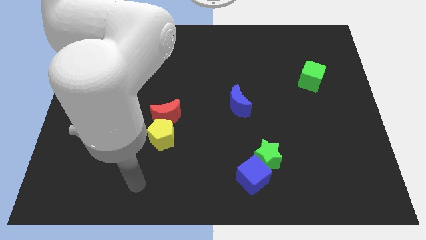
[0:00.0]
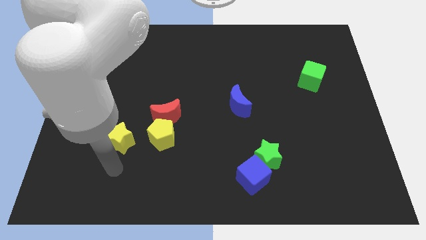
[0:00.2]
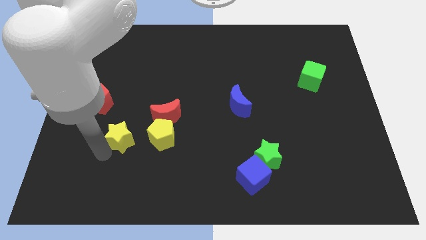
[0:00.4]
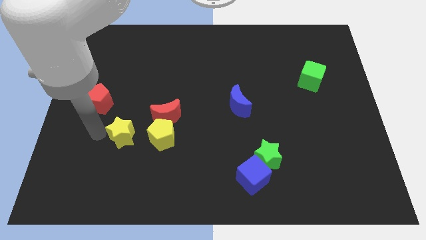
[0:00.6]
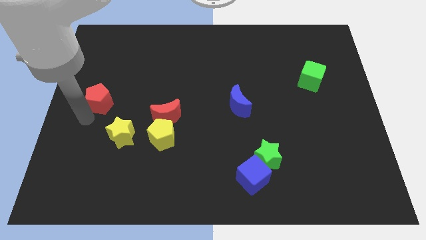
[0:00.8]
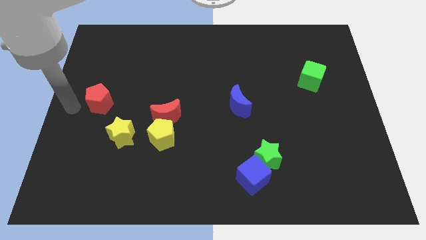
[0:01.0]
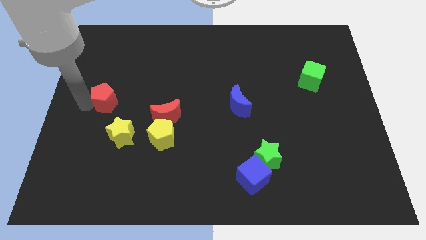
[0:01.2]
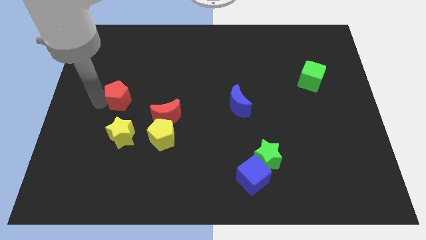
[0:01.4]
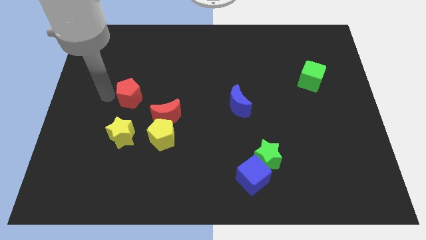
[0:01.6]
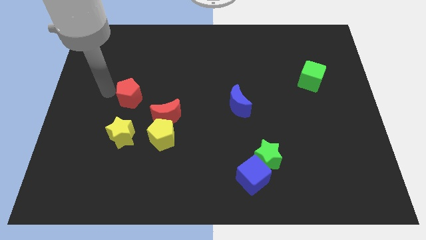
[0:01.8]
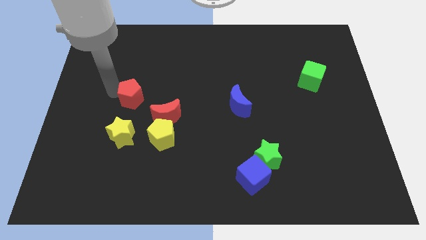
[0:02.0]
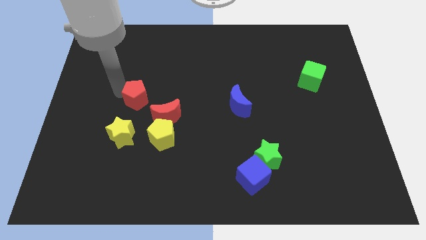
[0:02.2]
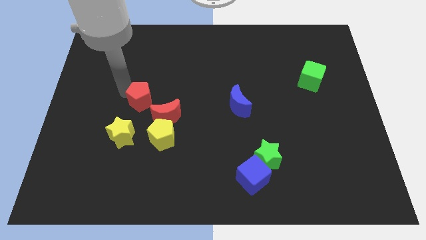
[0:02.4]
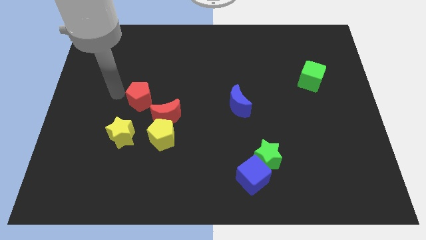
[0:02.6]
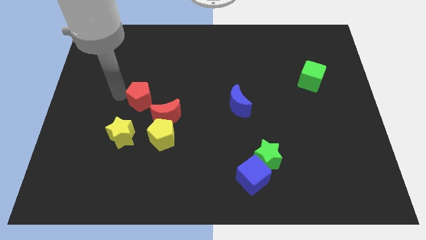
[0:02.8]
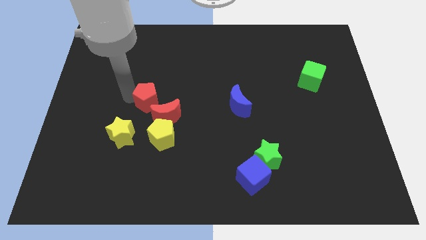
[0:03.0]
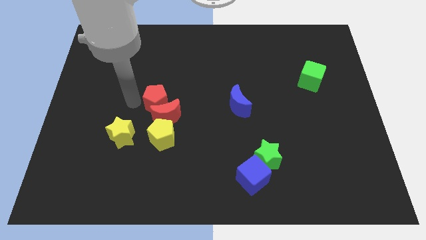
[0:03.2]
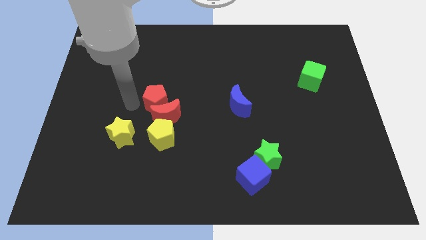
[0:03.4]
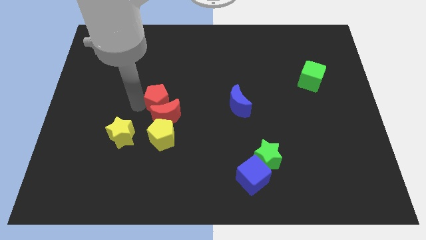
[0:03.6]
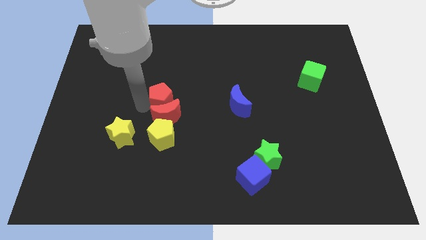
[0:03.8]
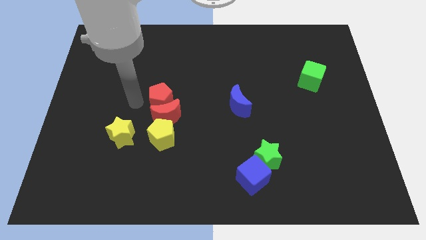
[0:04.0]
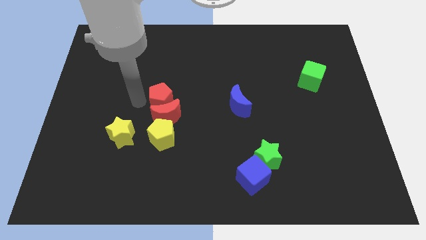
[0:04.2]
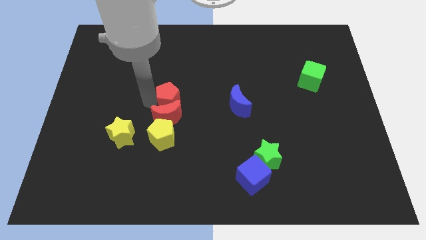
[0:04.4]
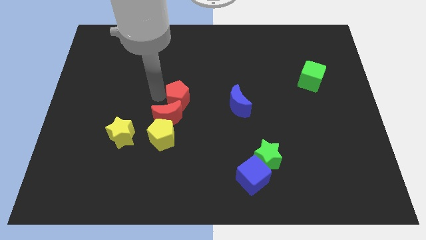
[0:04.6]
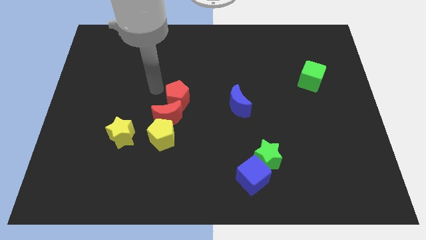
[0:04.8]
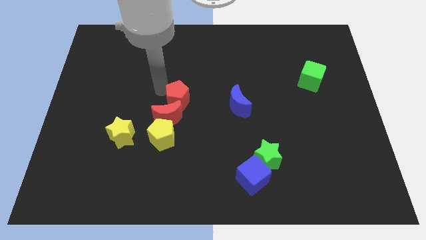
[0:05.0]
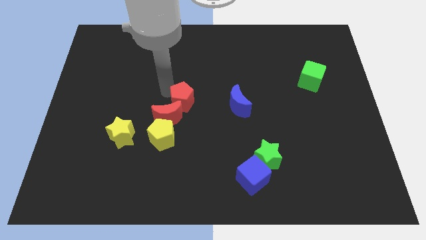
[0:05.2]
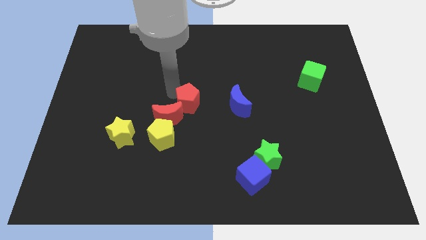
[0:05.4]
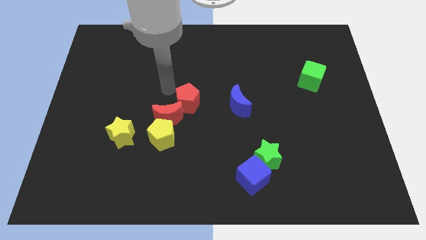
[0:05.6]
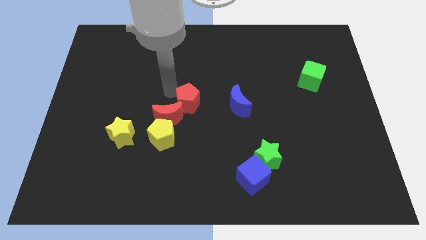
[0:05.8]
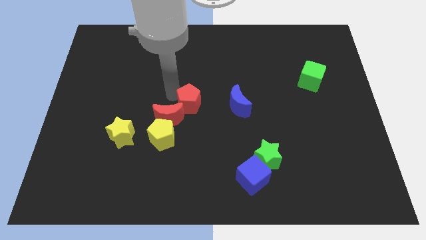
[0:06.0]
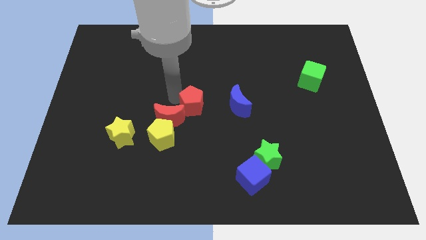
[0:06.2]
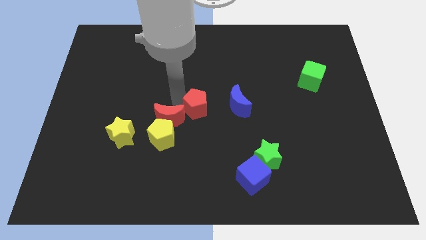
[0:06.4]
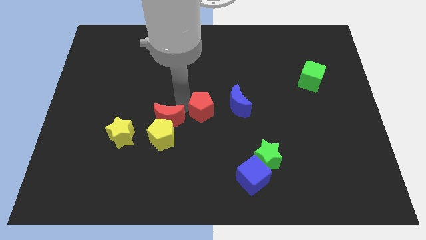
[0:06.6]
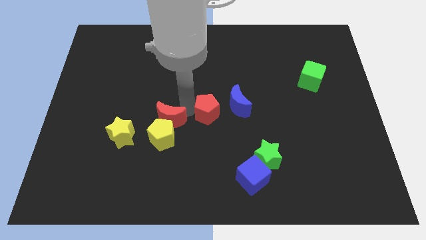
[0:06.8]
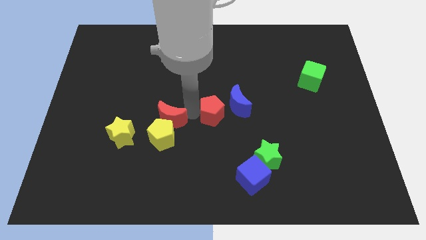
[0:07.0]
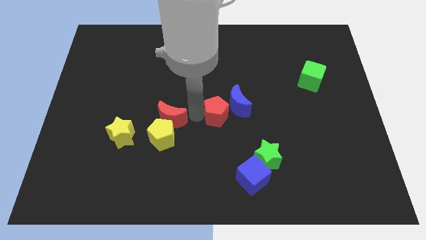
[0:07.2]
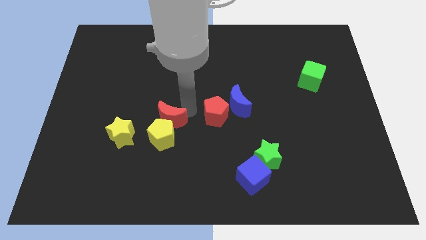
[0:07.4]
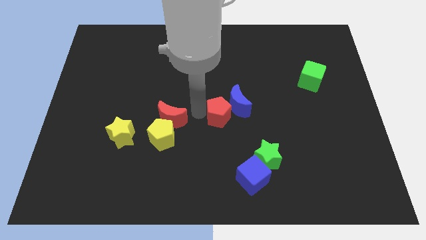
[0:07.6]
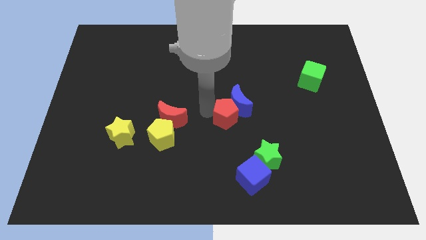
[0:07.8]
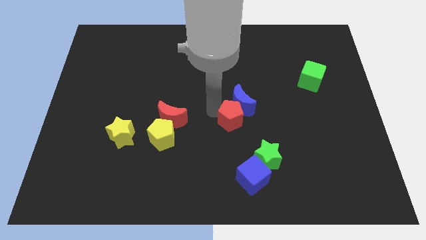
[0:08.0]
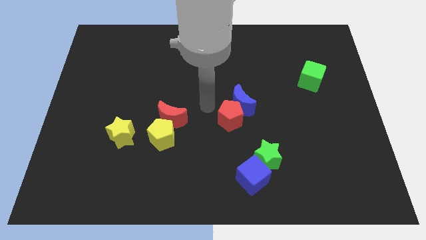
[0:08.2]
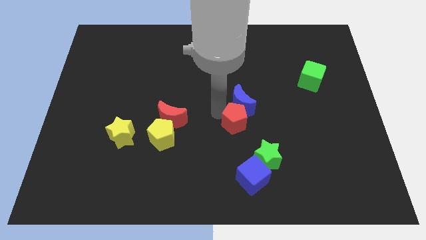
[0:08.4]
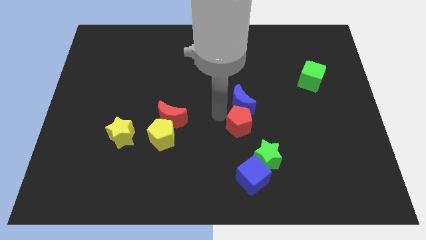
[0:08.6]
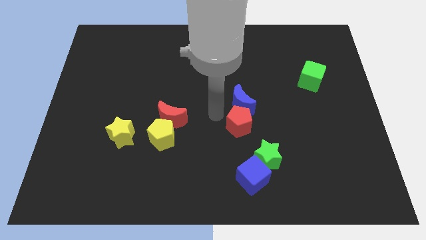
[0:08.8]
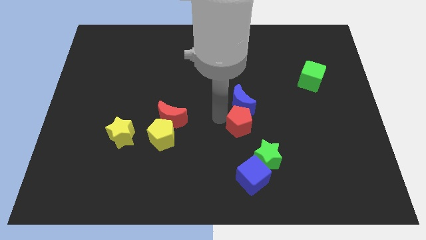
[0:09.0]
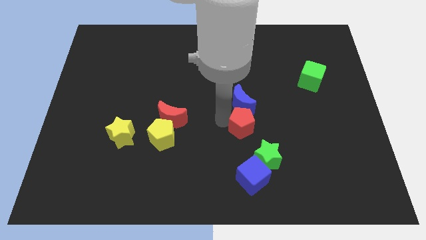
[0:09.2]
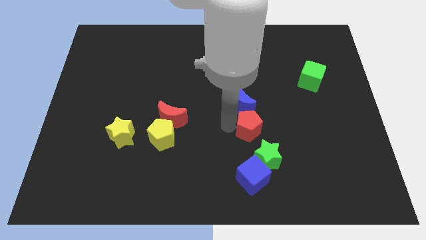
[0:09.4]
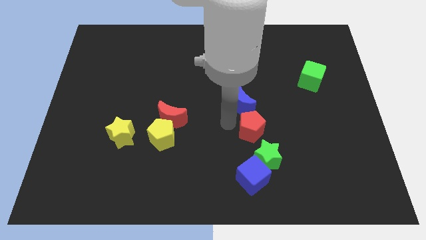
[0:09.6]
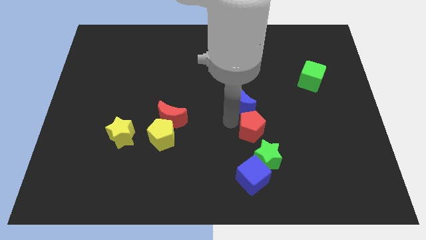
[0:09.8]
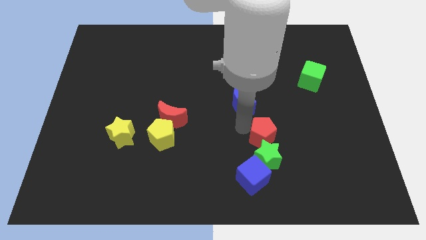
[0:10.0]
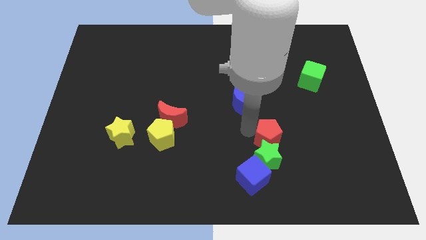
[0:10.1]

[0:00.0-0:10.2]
put the red pentagon to the top right of the blue cube

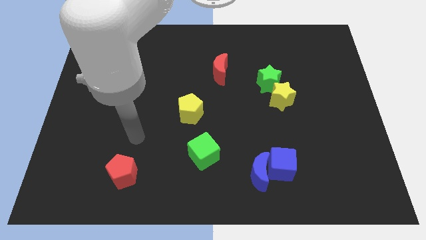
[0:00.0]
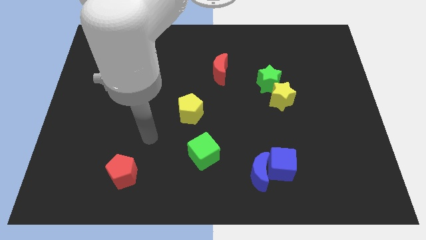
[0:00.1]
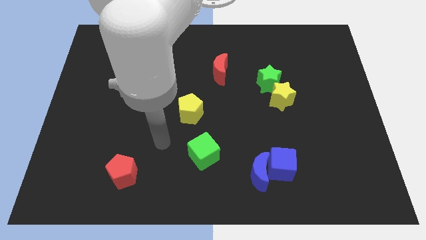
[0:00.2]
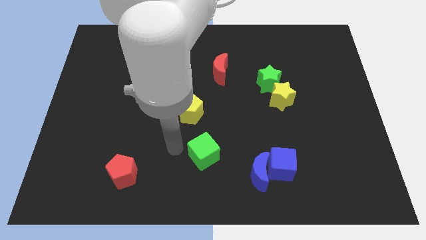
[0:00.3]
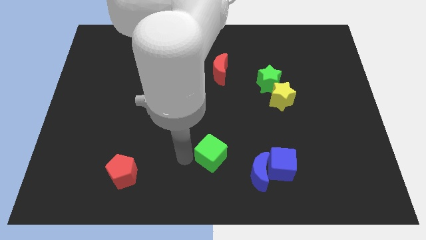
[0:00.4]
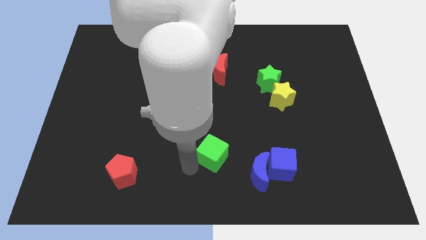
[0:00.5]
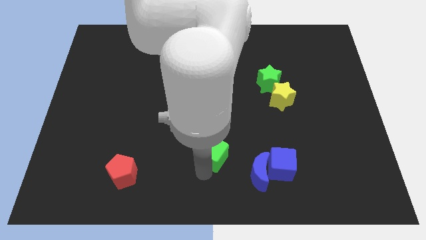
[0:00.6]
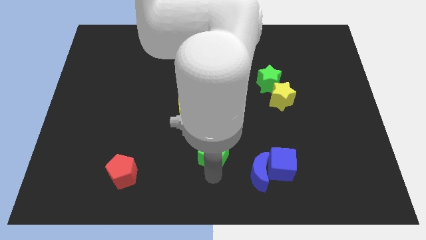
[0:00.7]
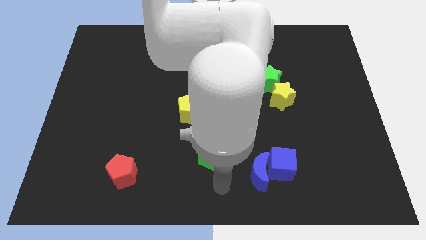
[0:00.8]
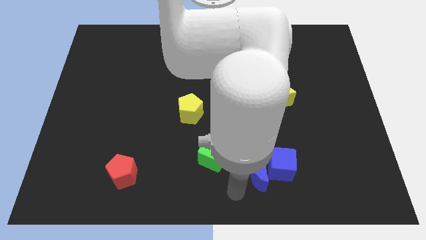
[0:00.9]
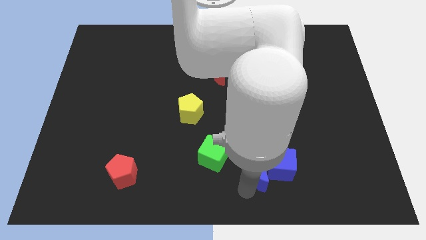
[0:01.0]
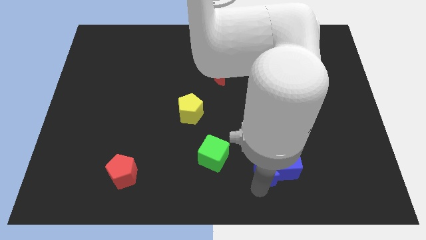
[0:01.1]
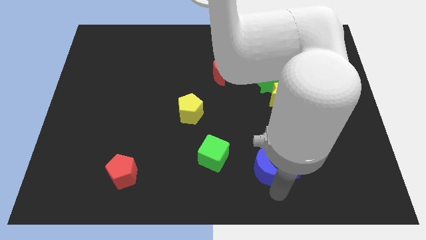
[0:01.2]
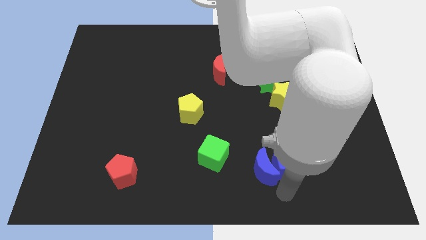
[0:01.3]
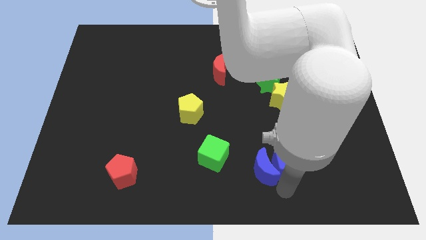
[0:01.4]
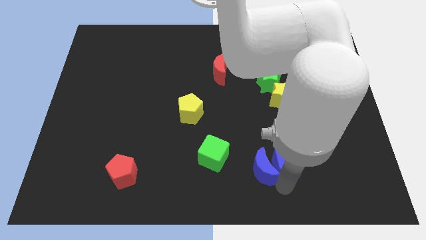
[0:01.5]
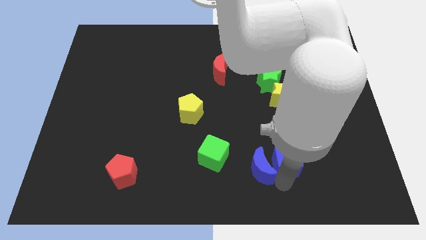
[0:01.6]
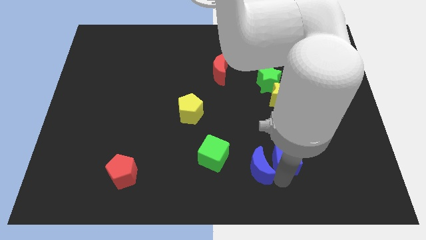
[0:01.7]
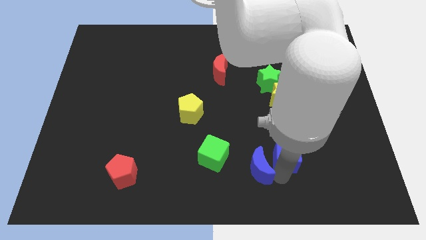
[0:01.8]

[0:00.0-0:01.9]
slide the blue cube to the bottom side of the yellow star

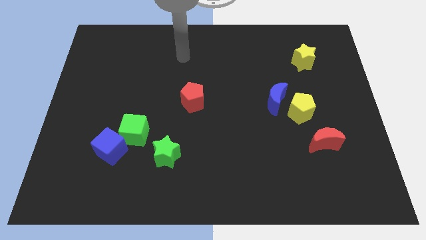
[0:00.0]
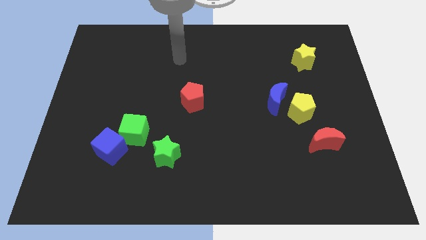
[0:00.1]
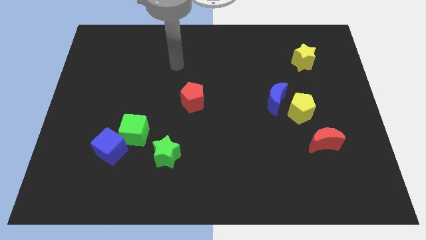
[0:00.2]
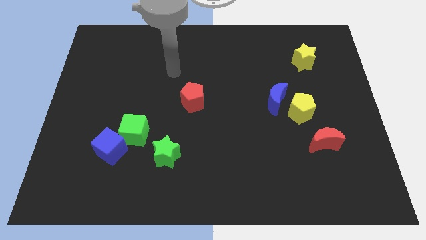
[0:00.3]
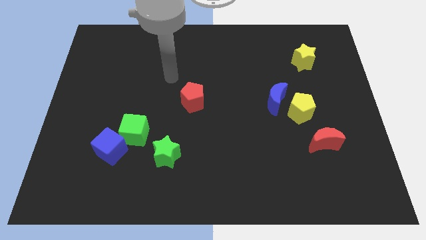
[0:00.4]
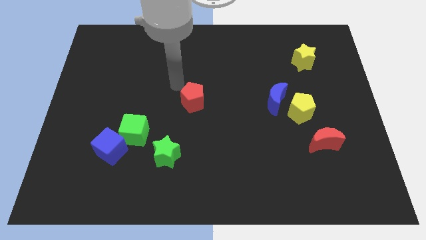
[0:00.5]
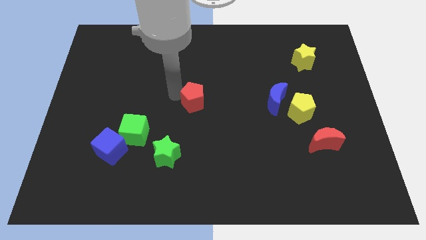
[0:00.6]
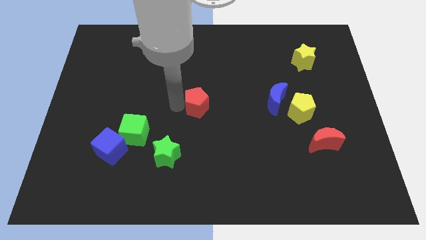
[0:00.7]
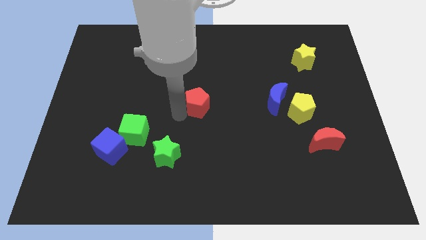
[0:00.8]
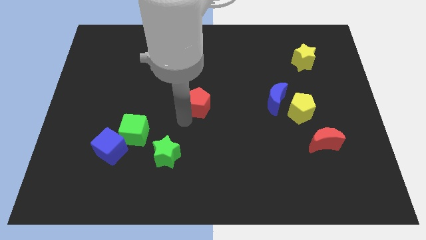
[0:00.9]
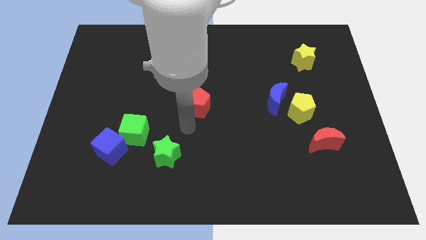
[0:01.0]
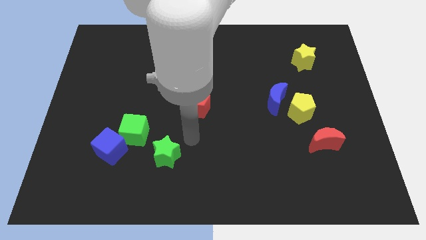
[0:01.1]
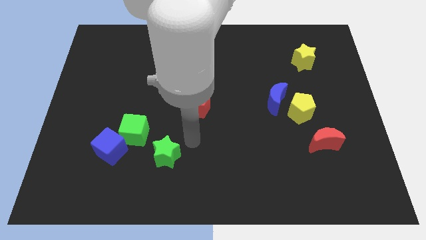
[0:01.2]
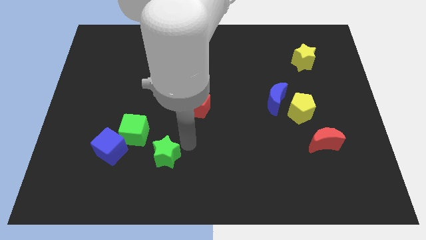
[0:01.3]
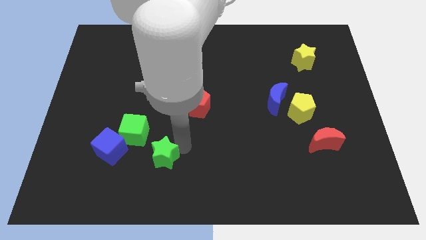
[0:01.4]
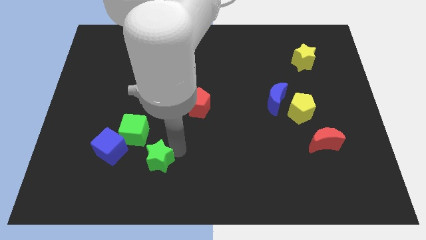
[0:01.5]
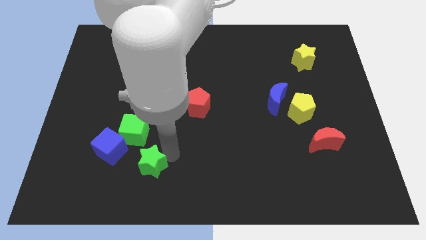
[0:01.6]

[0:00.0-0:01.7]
put the green star to the bottom side of the green cube
